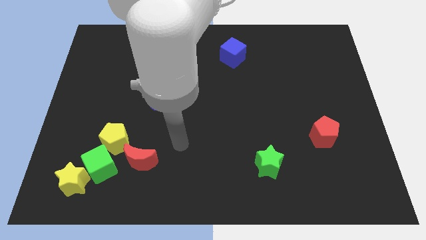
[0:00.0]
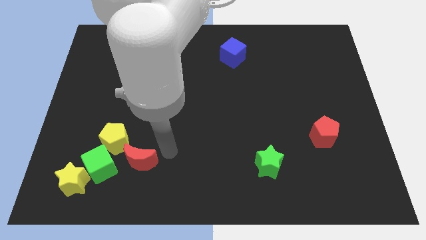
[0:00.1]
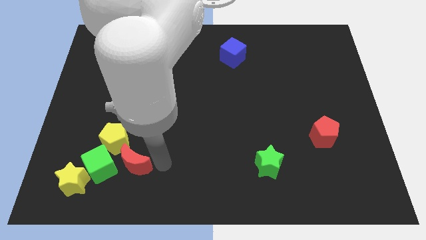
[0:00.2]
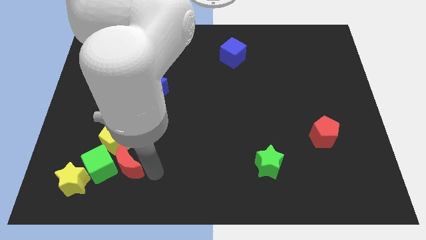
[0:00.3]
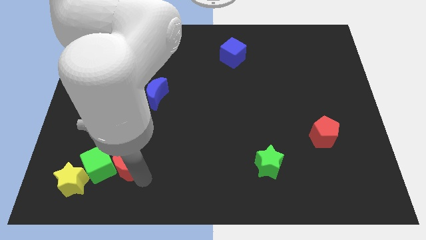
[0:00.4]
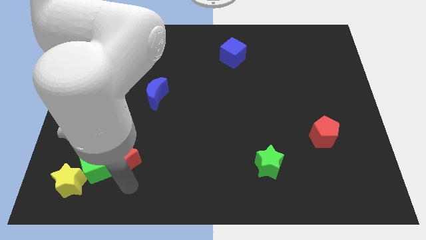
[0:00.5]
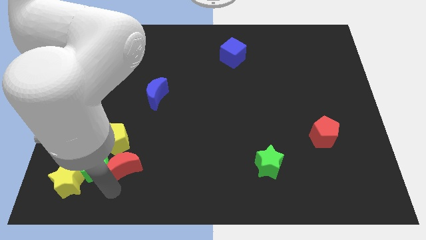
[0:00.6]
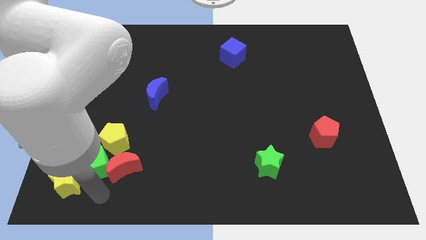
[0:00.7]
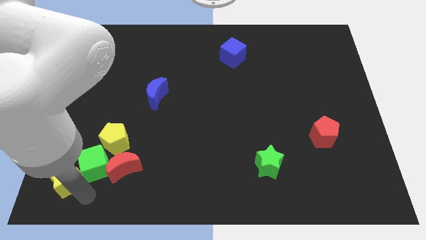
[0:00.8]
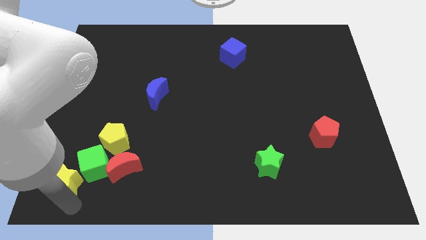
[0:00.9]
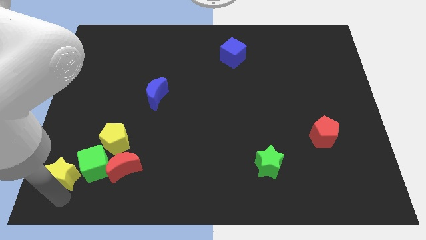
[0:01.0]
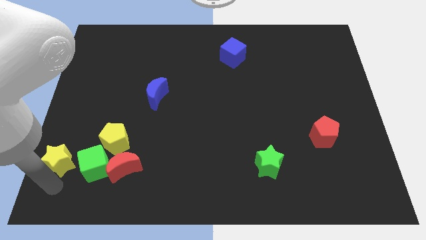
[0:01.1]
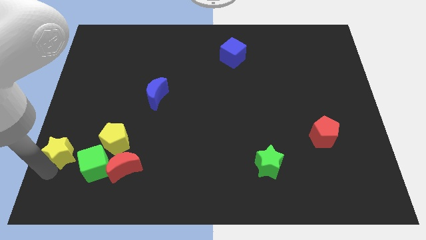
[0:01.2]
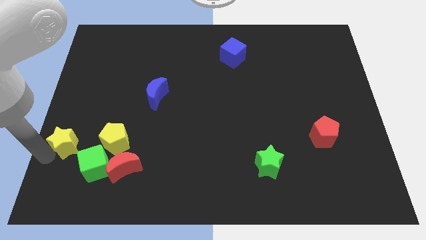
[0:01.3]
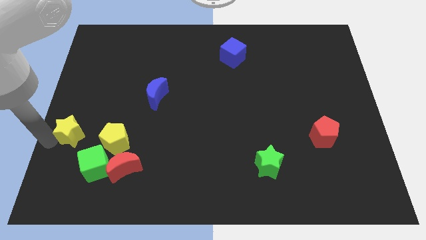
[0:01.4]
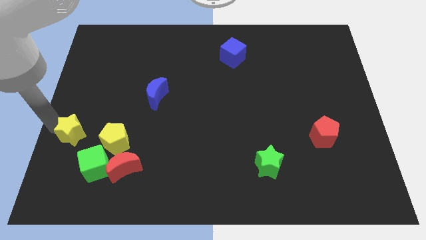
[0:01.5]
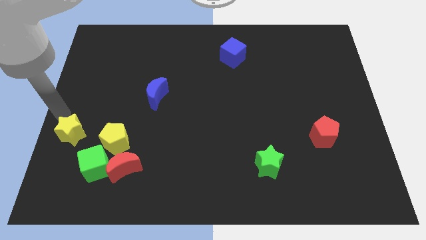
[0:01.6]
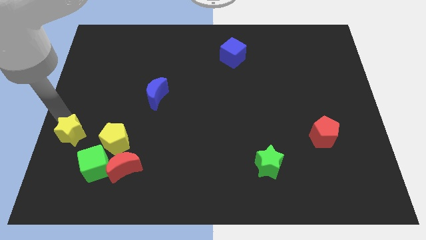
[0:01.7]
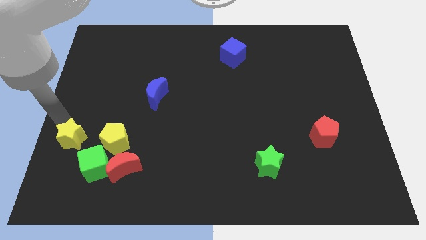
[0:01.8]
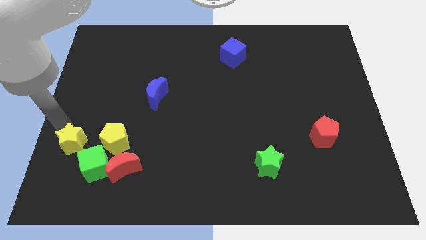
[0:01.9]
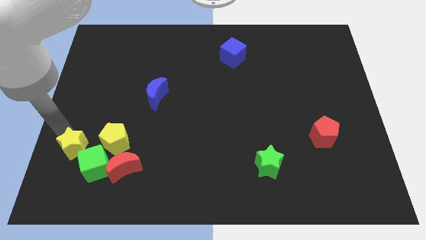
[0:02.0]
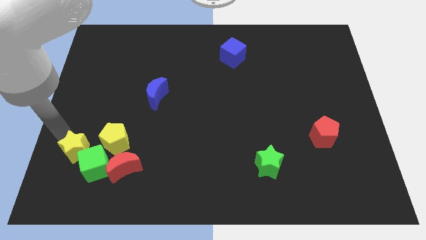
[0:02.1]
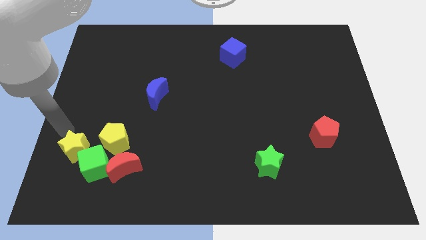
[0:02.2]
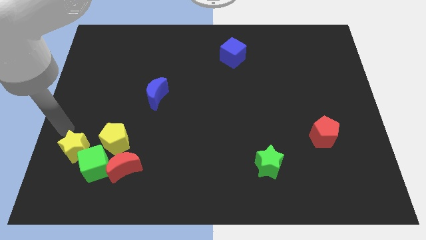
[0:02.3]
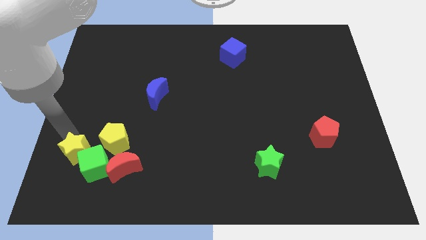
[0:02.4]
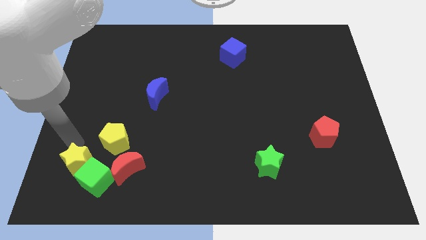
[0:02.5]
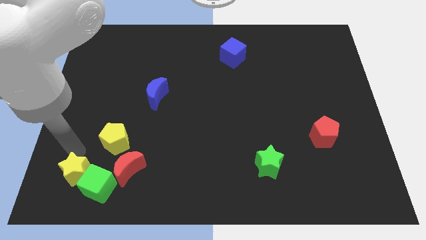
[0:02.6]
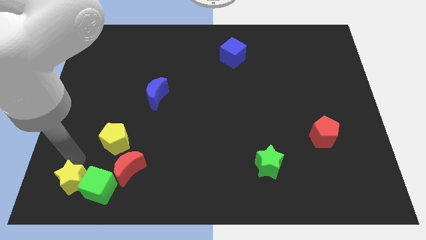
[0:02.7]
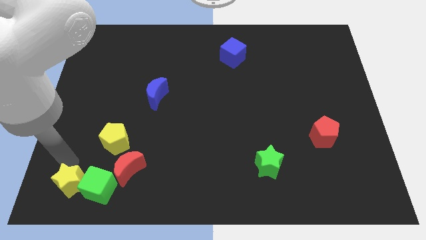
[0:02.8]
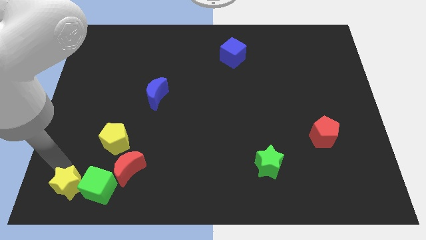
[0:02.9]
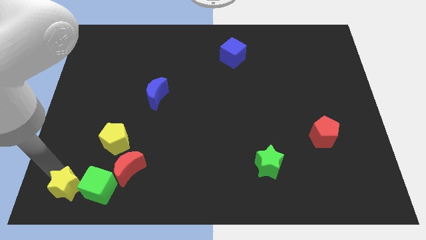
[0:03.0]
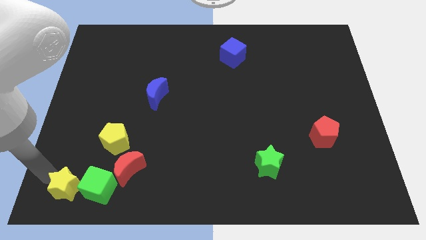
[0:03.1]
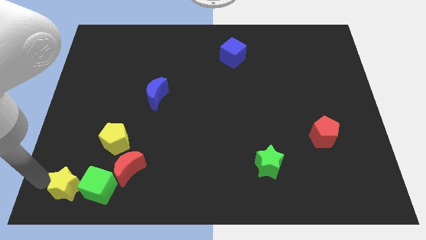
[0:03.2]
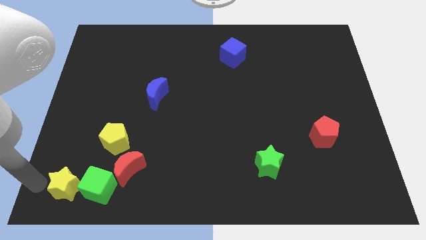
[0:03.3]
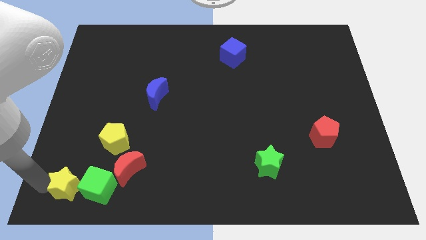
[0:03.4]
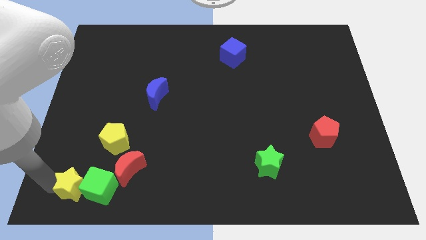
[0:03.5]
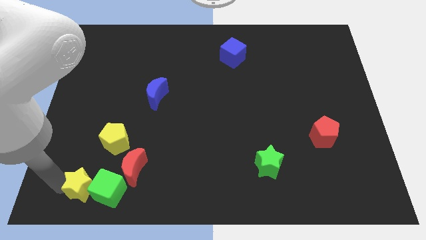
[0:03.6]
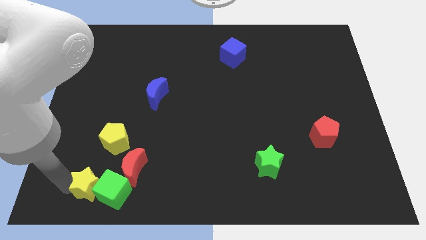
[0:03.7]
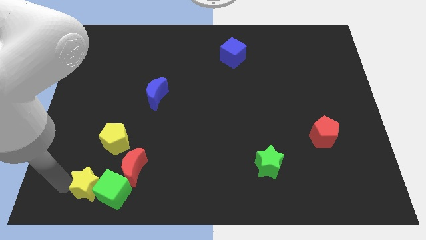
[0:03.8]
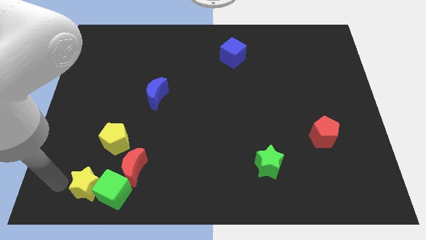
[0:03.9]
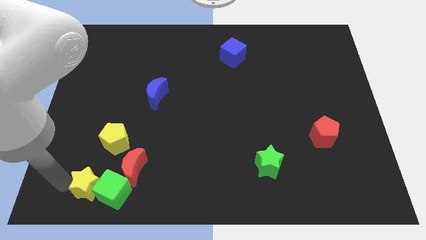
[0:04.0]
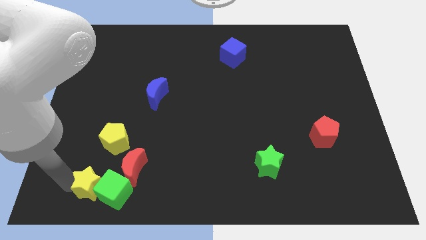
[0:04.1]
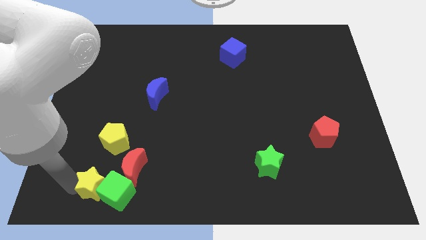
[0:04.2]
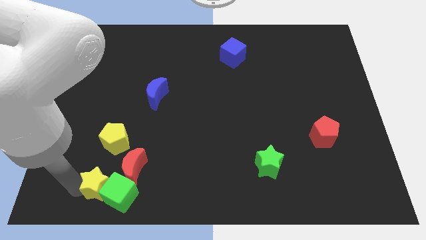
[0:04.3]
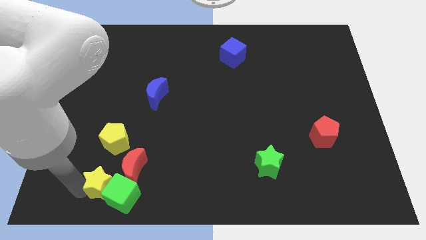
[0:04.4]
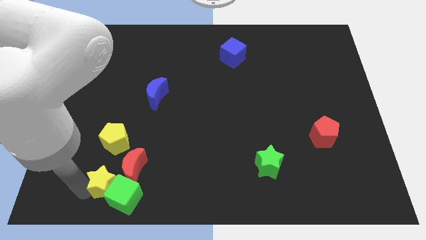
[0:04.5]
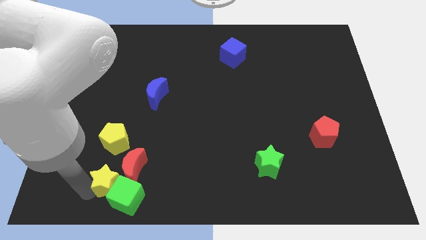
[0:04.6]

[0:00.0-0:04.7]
push the yellow star right somewhat

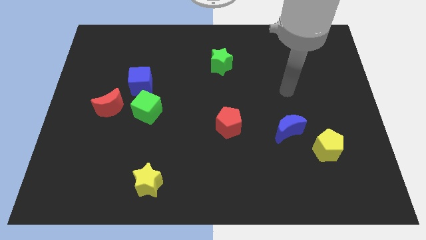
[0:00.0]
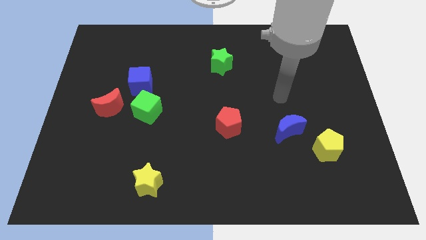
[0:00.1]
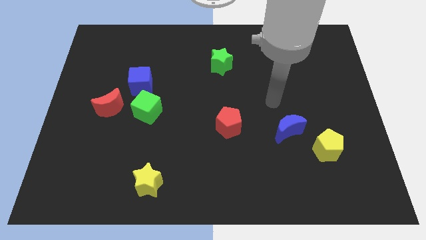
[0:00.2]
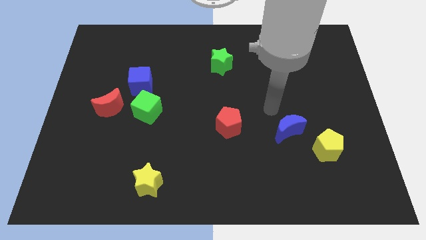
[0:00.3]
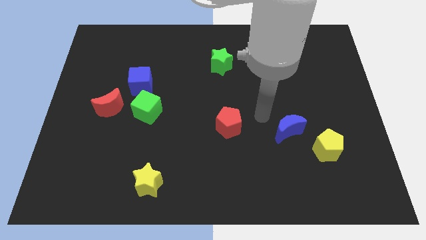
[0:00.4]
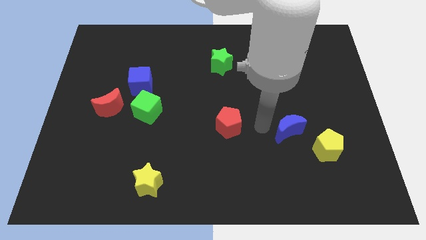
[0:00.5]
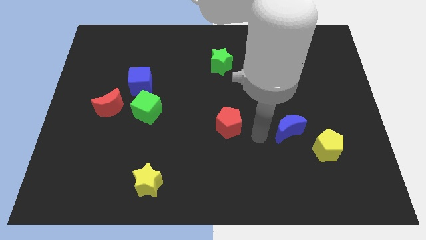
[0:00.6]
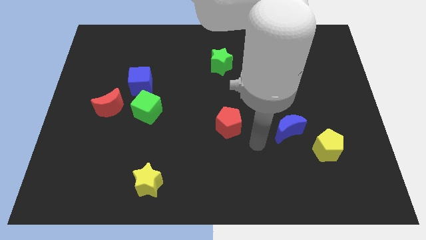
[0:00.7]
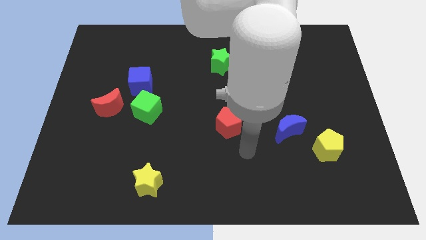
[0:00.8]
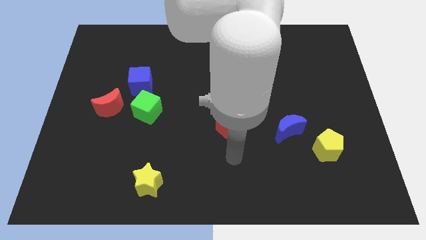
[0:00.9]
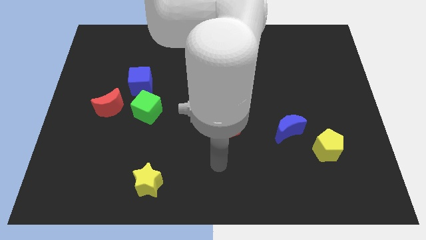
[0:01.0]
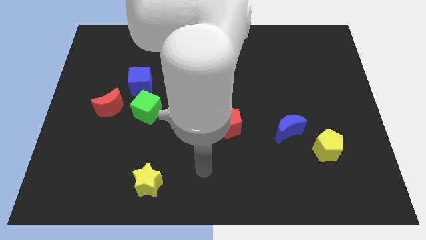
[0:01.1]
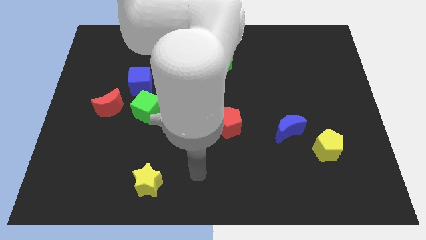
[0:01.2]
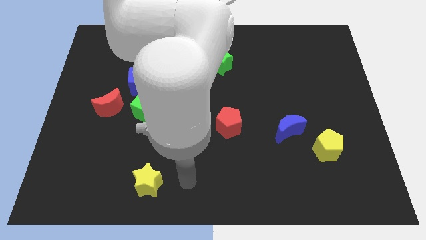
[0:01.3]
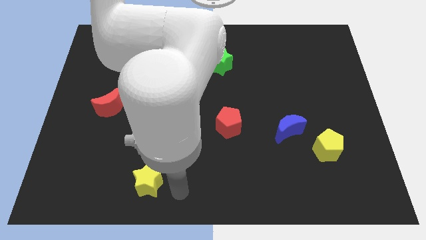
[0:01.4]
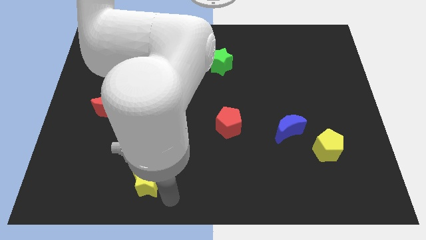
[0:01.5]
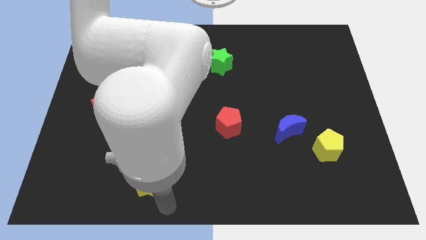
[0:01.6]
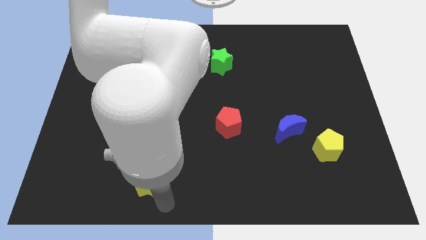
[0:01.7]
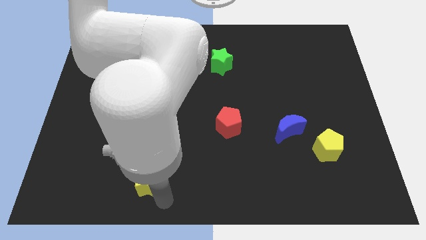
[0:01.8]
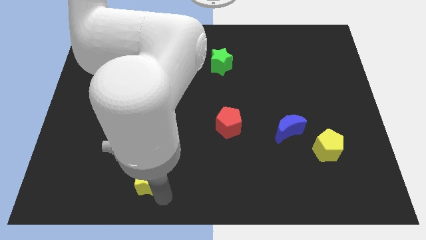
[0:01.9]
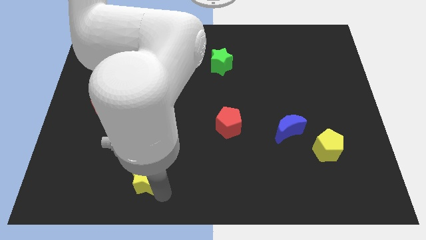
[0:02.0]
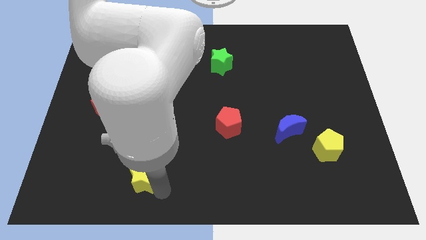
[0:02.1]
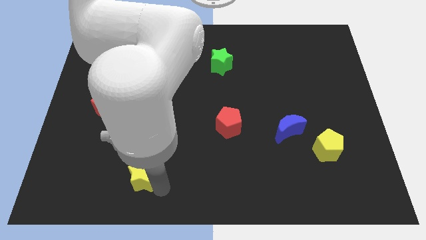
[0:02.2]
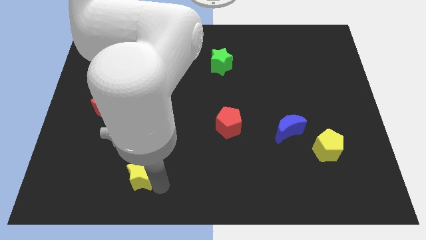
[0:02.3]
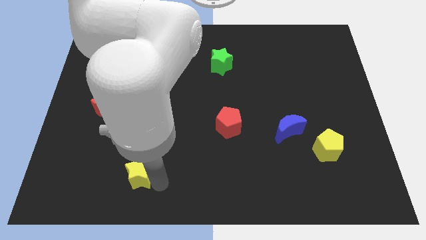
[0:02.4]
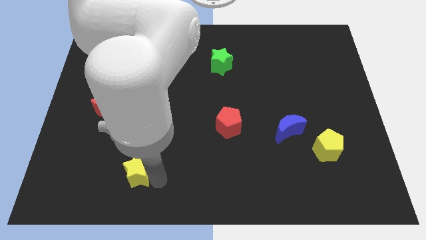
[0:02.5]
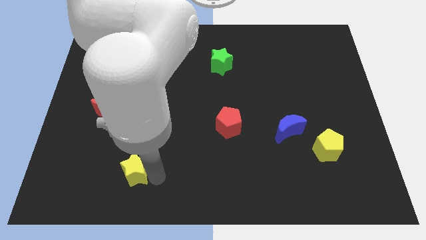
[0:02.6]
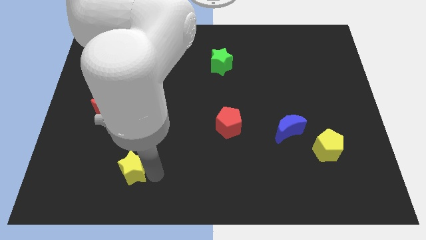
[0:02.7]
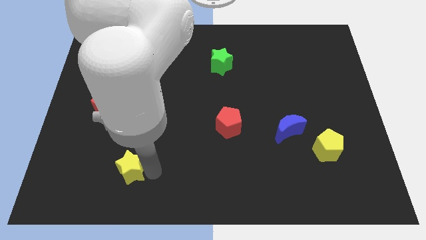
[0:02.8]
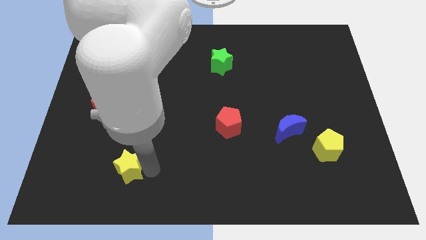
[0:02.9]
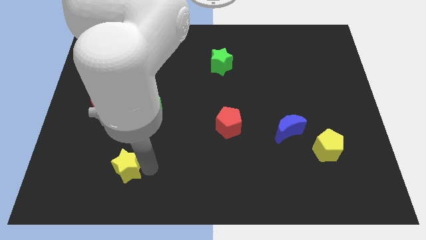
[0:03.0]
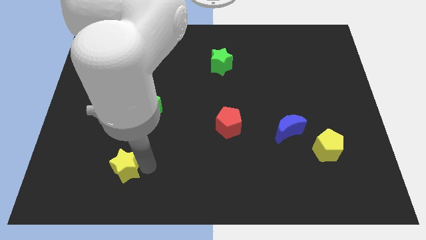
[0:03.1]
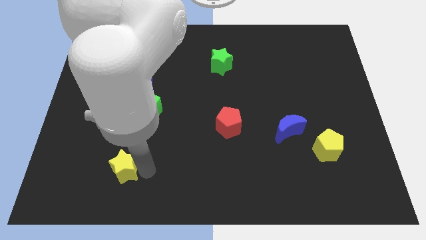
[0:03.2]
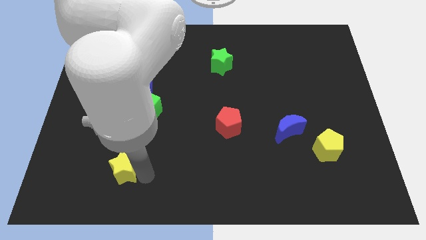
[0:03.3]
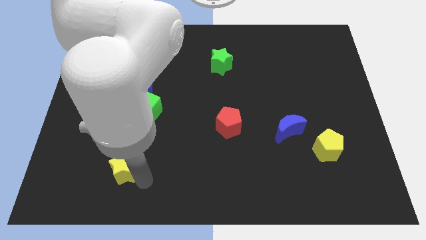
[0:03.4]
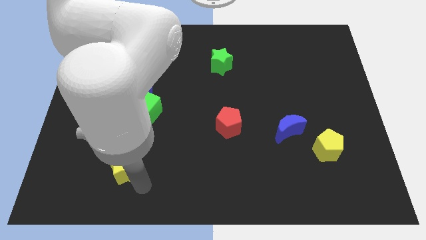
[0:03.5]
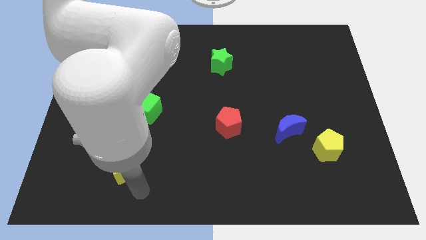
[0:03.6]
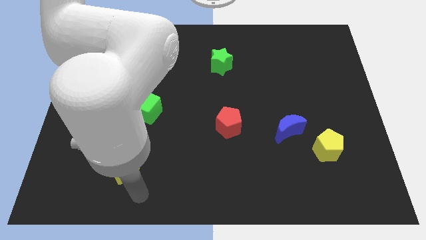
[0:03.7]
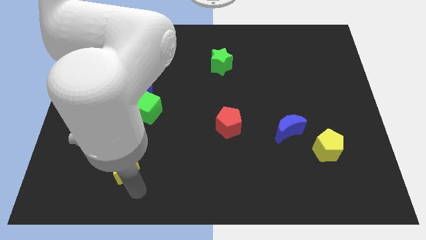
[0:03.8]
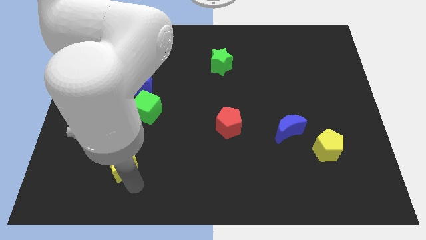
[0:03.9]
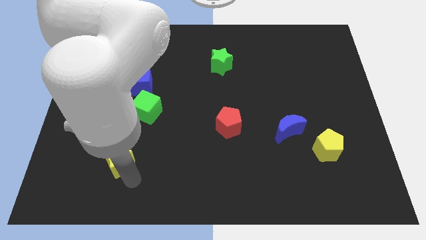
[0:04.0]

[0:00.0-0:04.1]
slightly slide the yellow star upwards and then to the left
